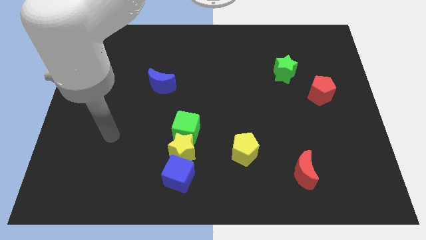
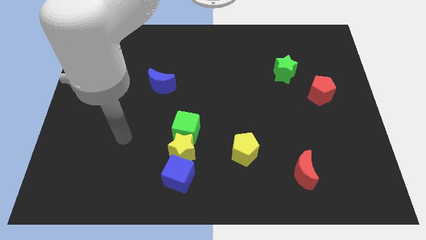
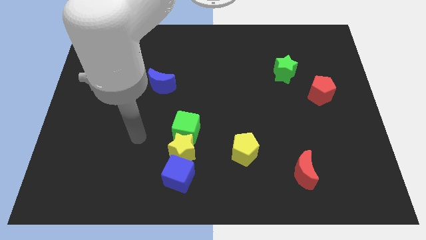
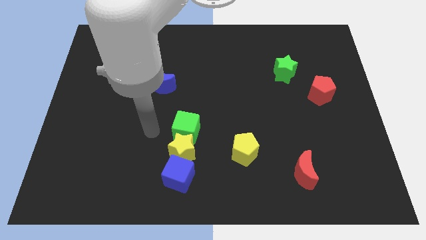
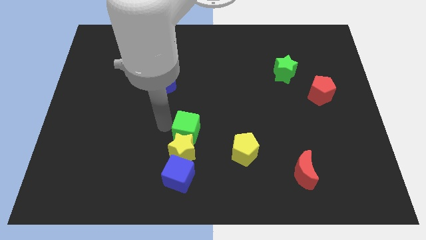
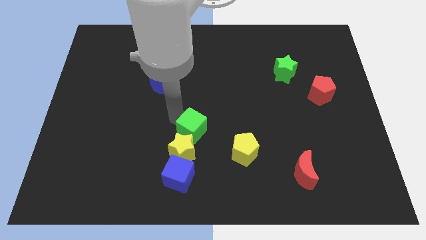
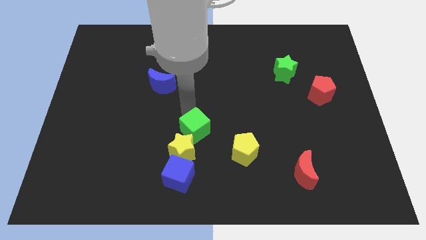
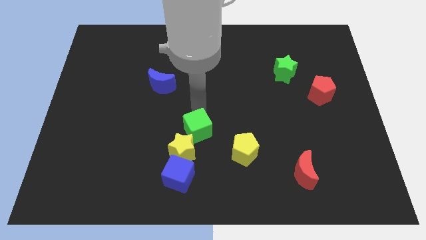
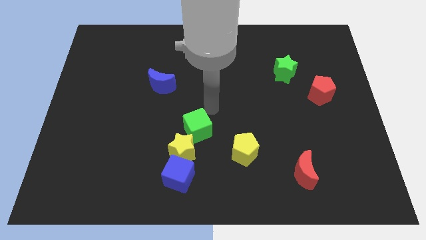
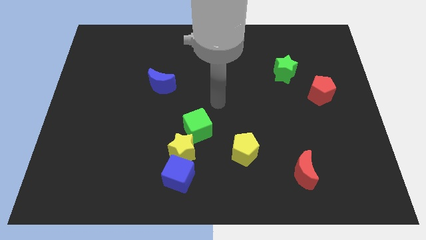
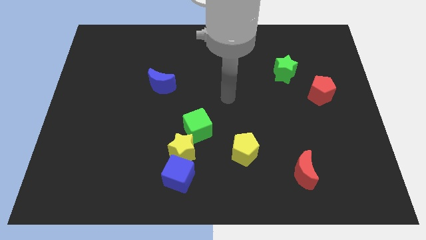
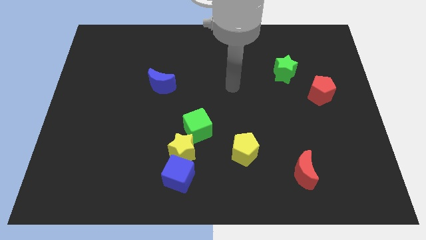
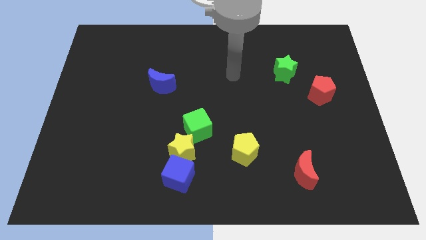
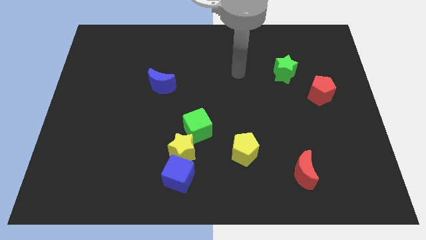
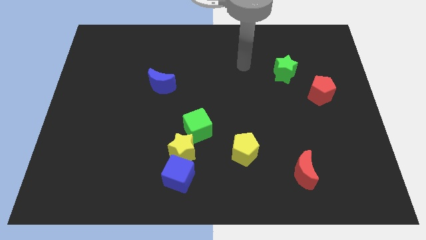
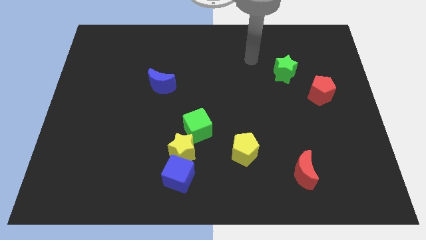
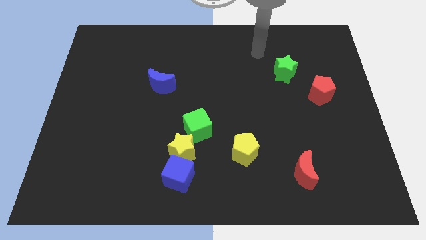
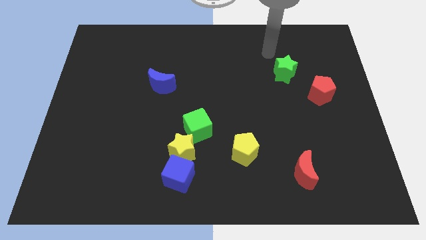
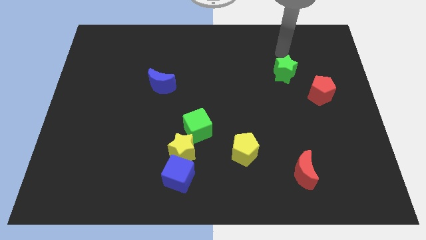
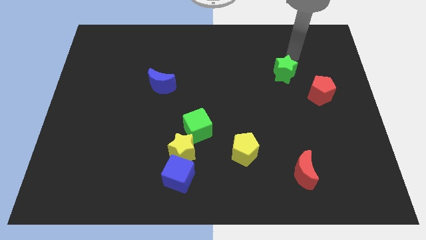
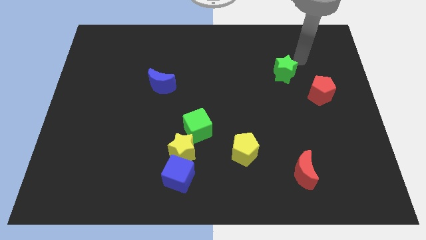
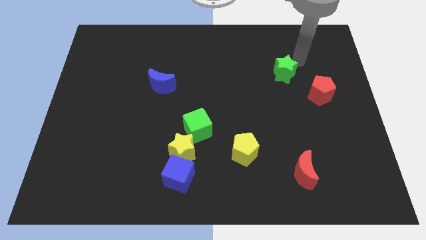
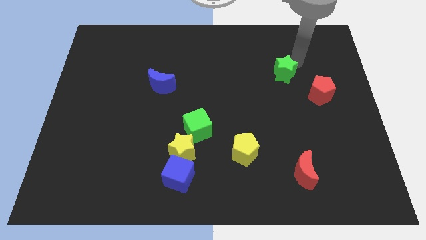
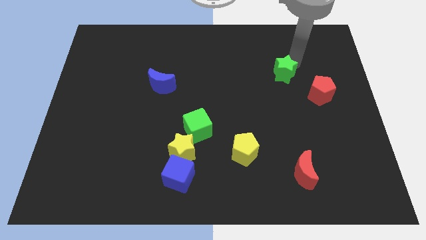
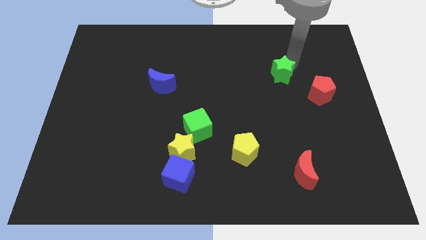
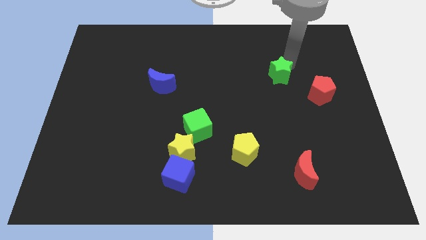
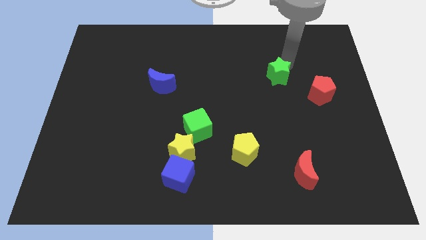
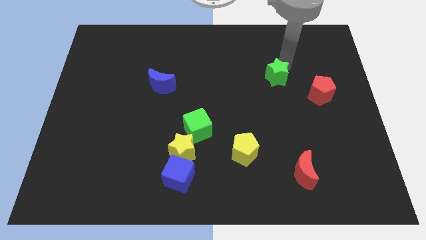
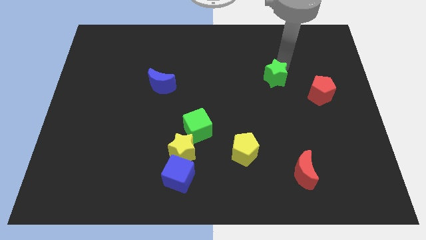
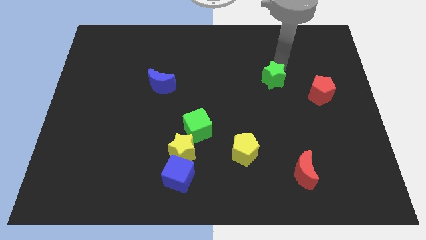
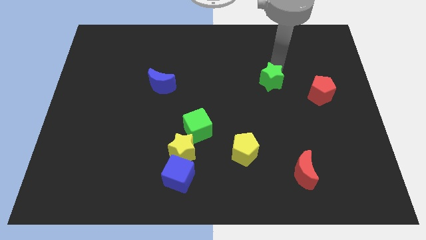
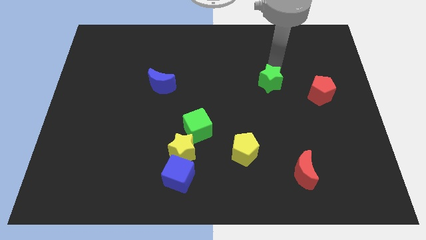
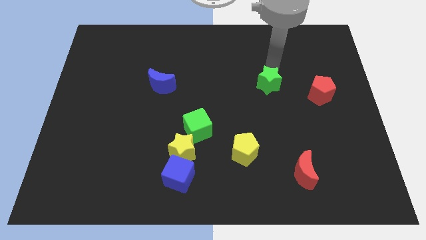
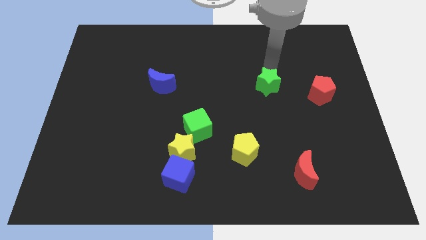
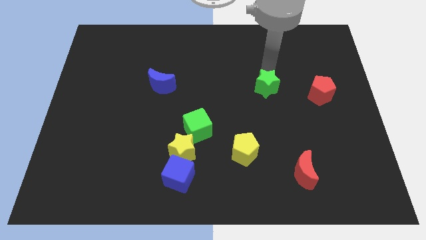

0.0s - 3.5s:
slightly slide the green star down and then to the left

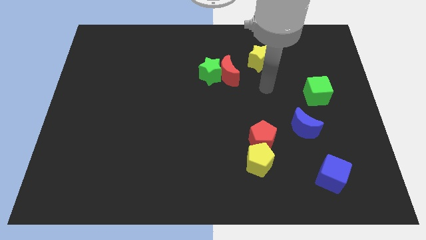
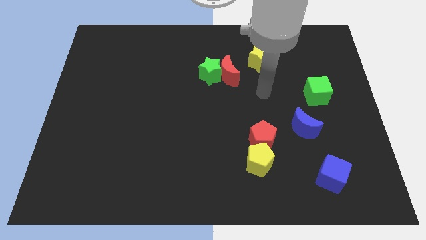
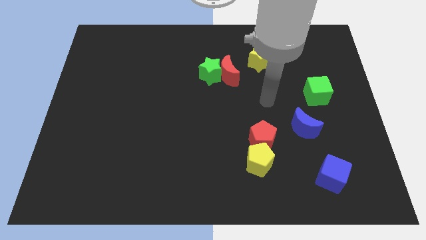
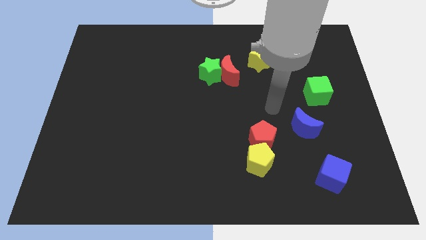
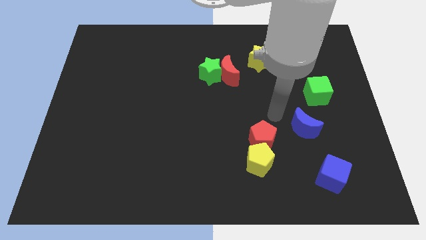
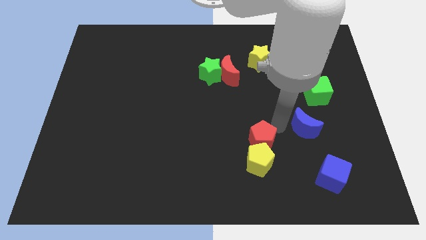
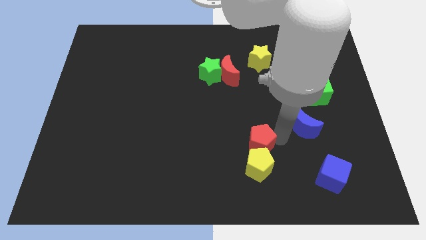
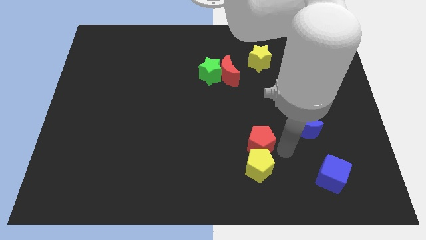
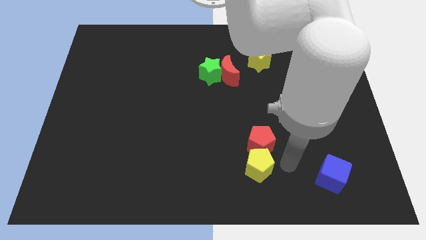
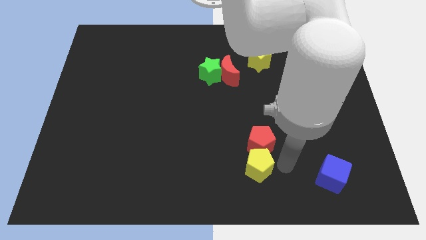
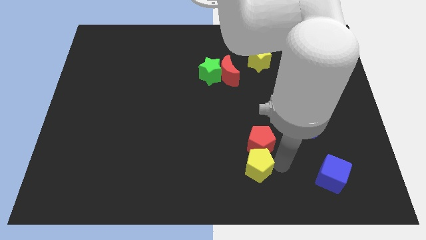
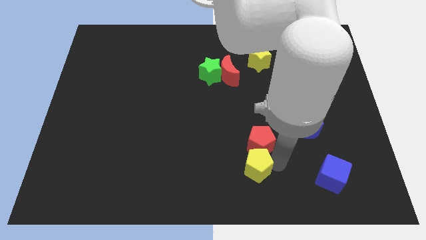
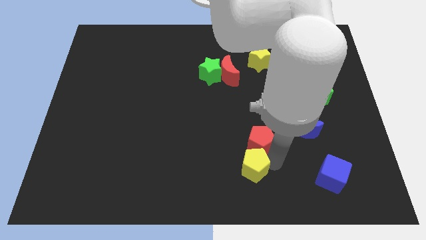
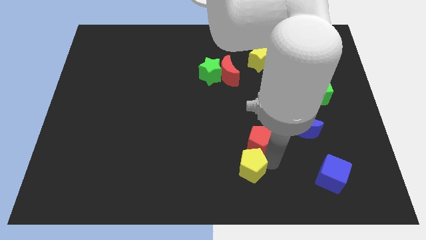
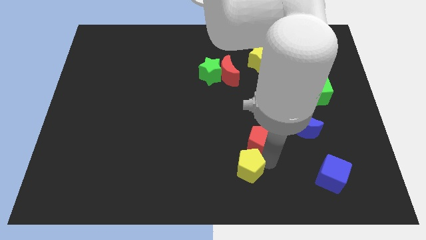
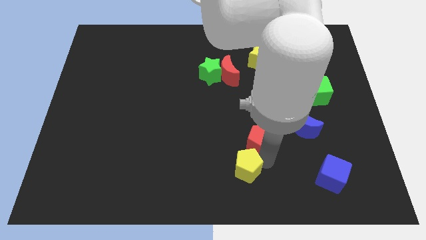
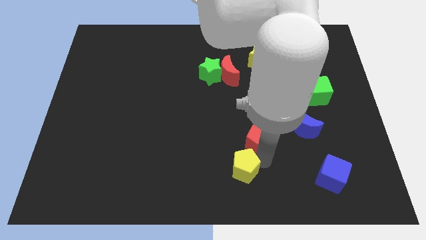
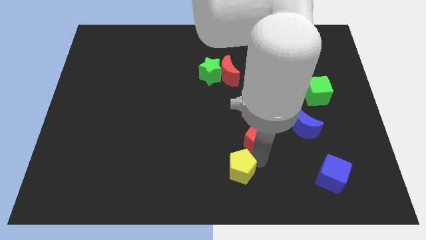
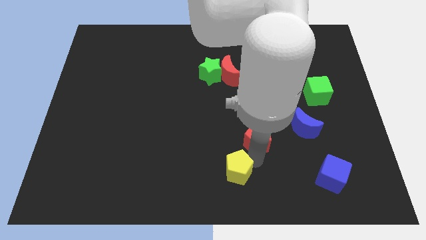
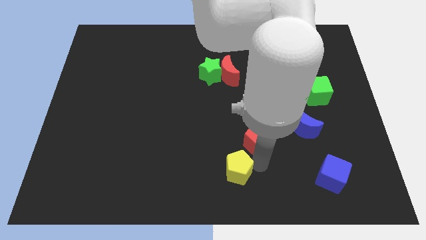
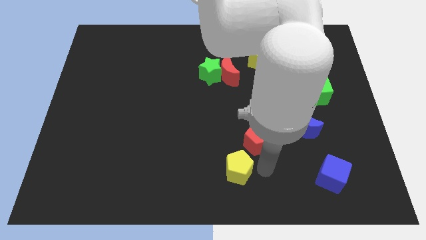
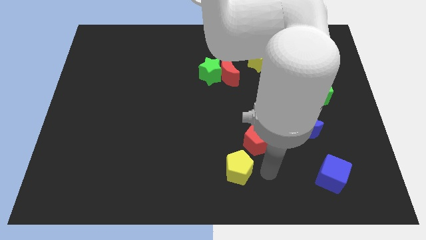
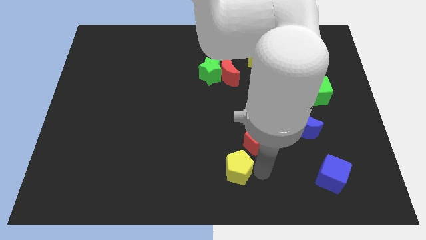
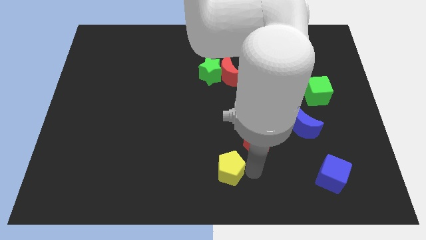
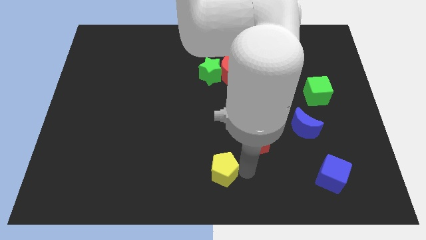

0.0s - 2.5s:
slightly move the yellow pentagon left

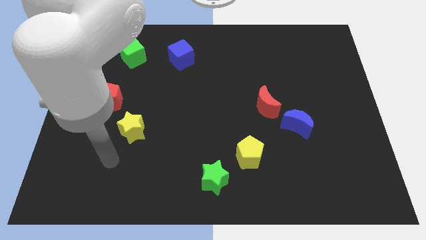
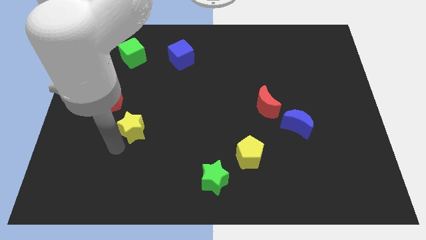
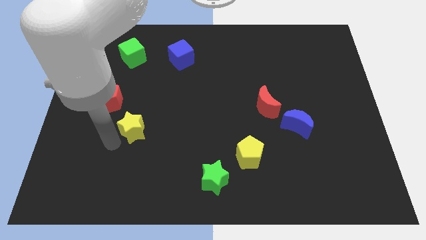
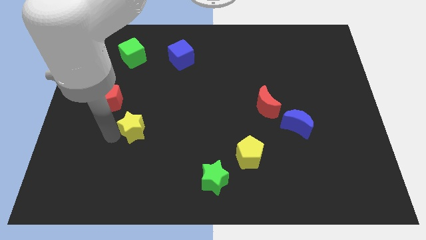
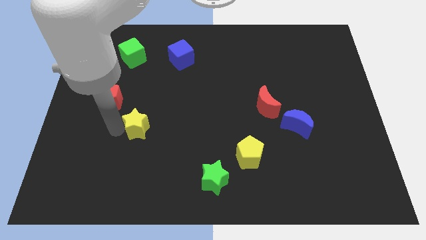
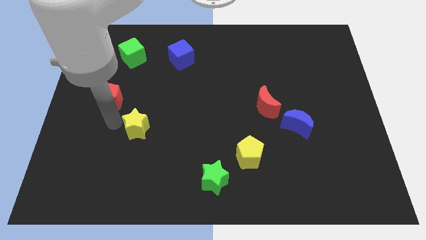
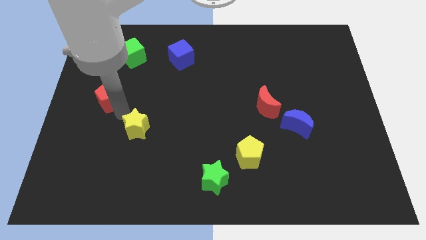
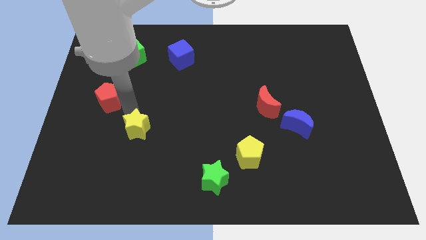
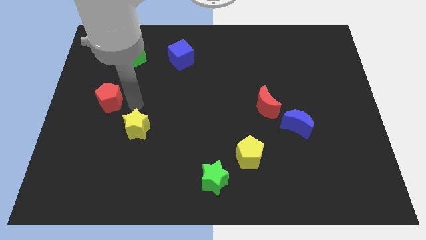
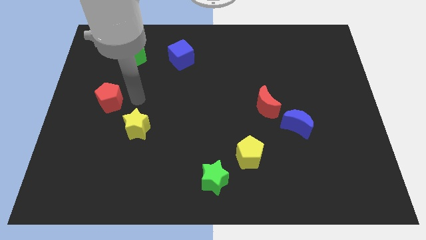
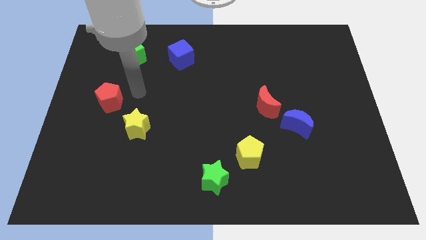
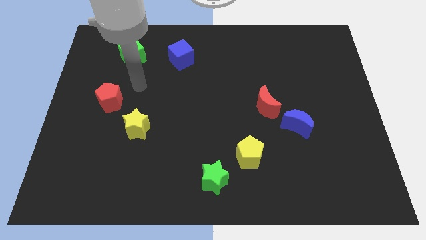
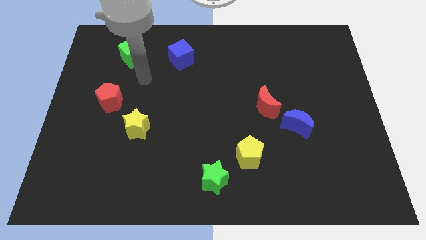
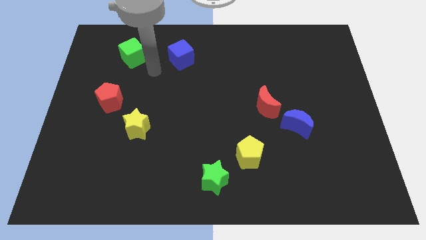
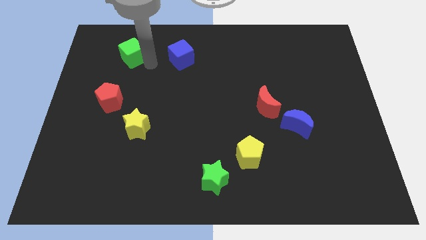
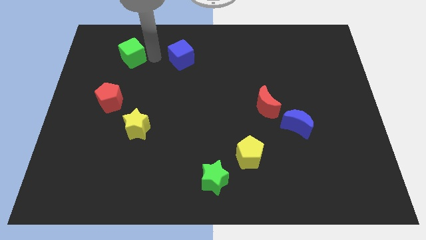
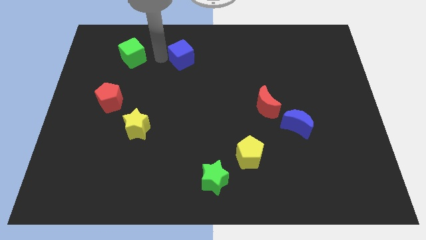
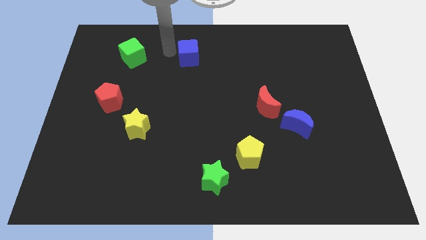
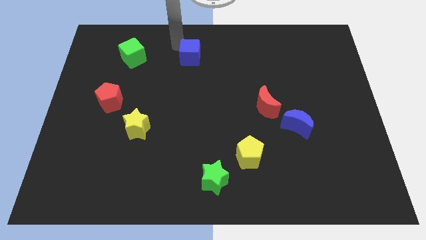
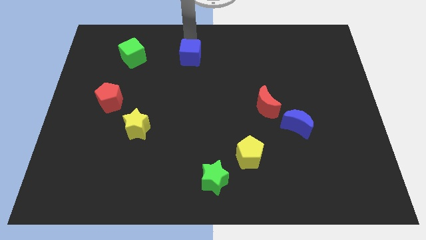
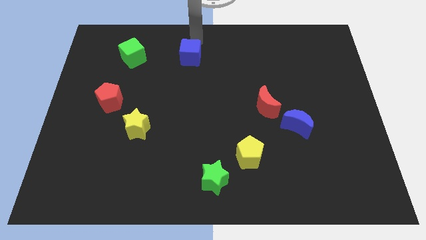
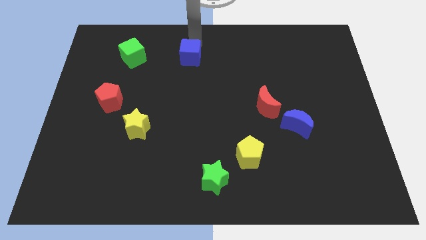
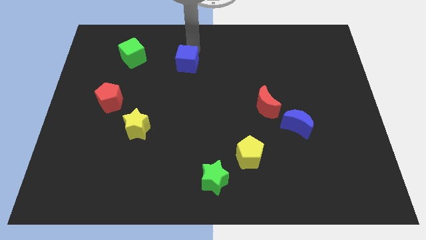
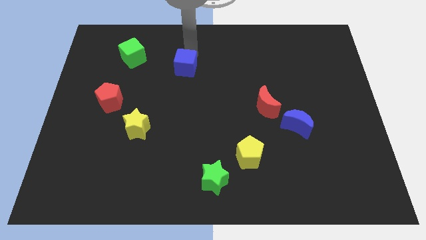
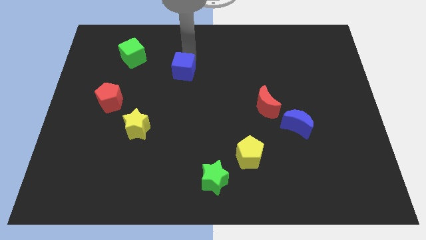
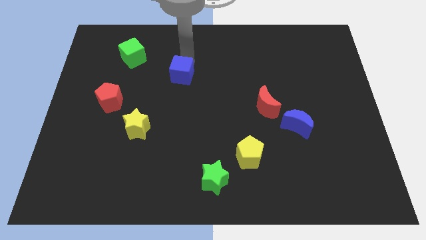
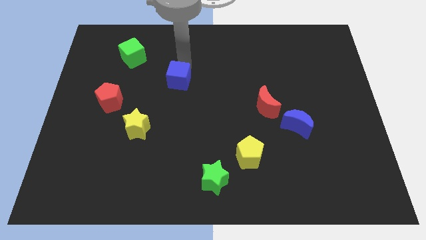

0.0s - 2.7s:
move the blue cube somewhat downwards
